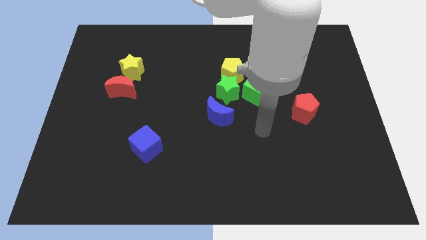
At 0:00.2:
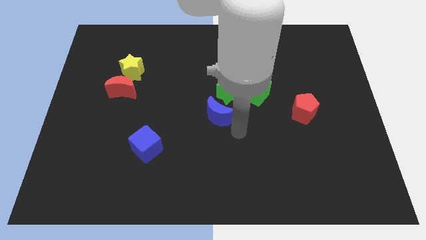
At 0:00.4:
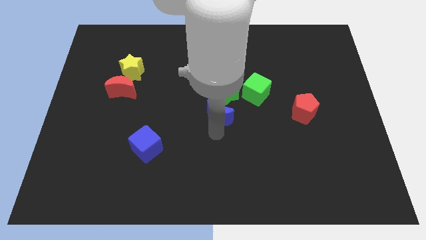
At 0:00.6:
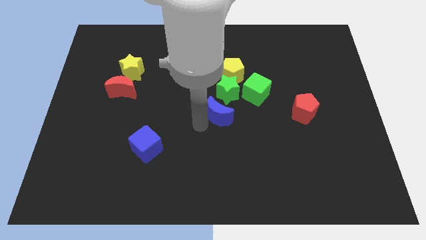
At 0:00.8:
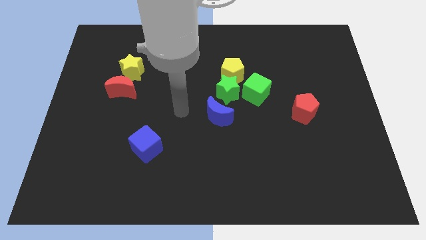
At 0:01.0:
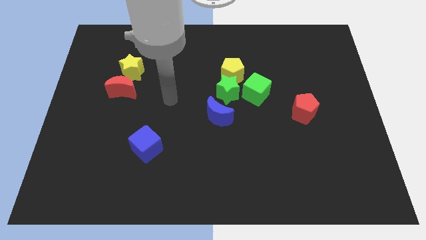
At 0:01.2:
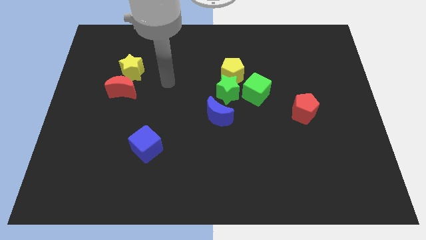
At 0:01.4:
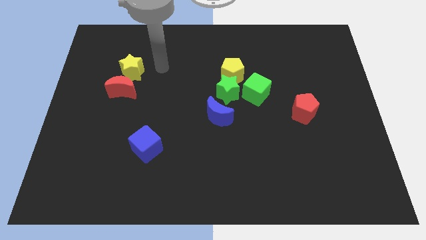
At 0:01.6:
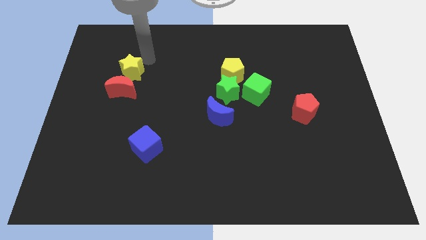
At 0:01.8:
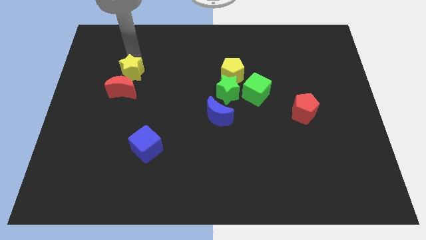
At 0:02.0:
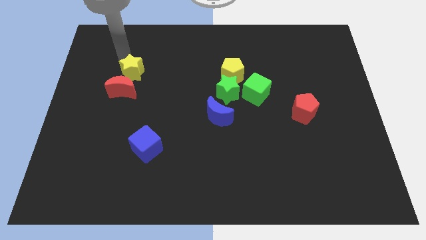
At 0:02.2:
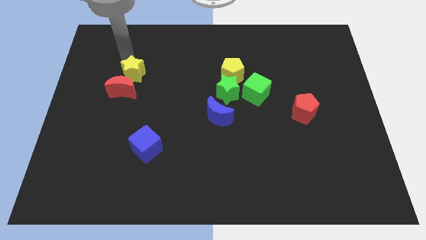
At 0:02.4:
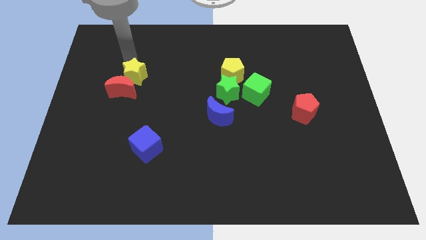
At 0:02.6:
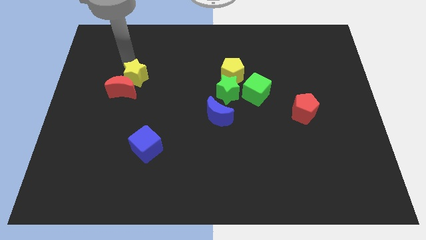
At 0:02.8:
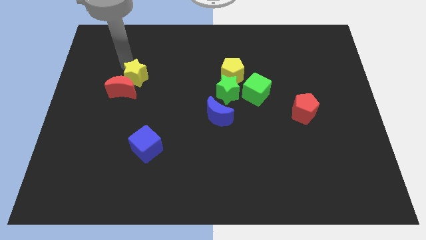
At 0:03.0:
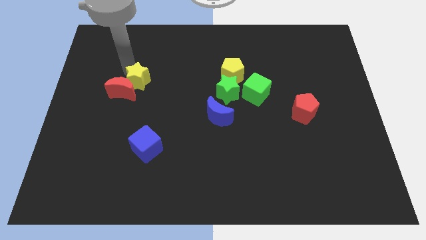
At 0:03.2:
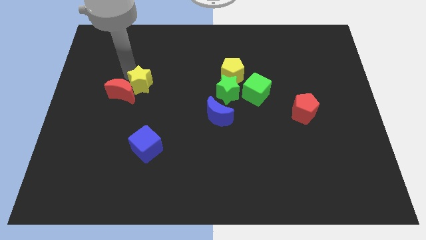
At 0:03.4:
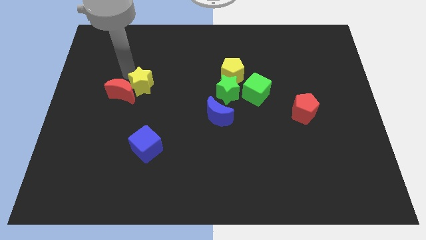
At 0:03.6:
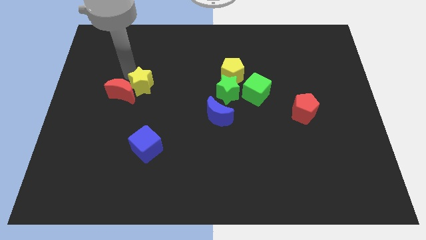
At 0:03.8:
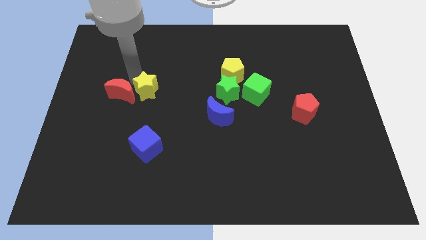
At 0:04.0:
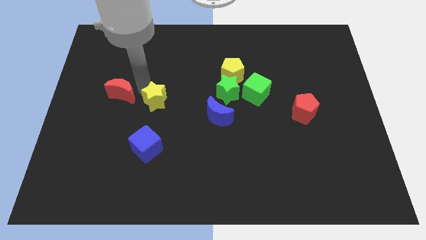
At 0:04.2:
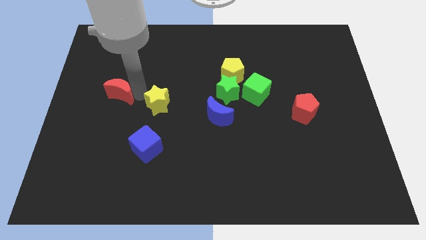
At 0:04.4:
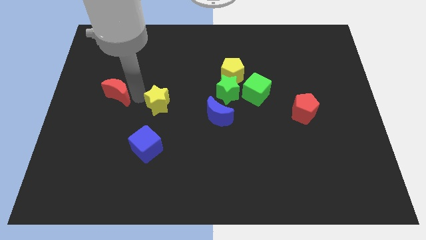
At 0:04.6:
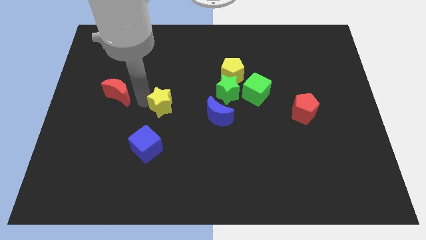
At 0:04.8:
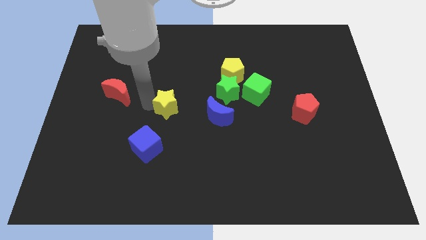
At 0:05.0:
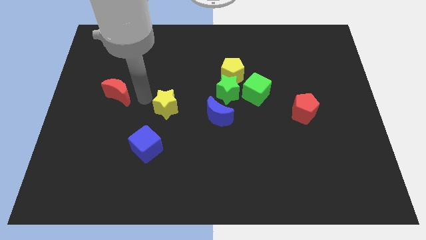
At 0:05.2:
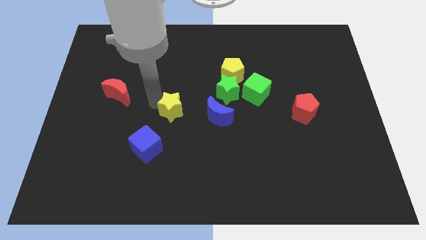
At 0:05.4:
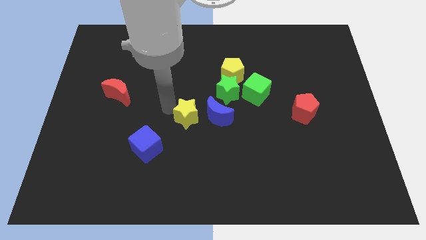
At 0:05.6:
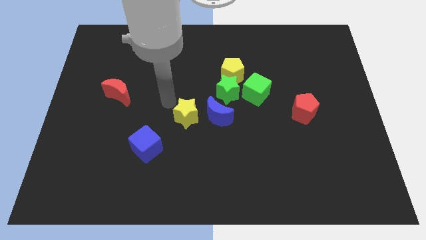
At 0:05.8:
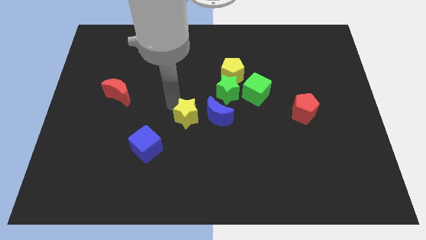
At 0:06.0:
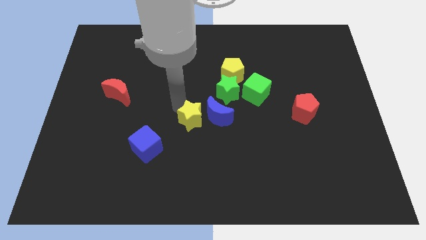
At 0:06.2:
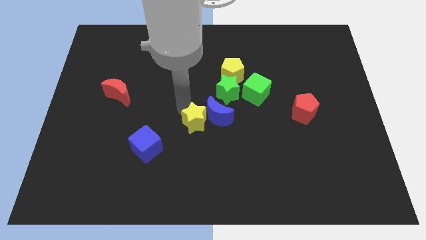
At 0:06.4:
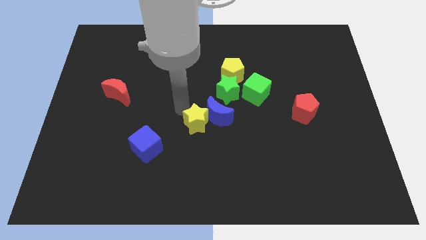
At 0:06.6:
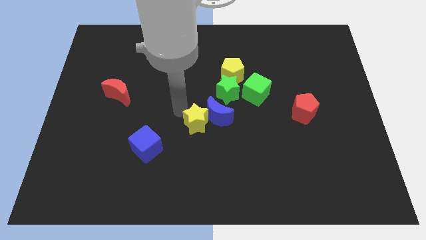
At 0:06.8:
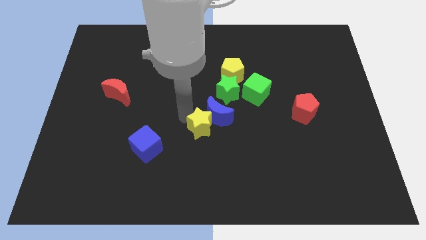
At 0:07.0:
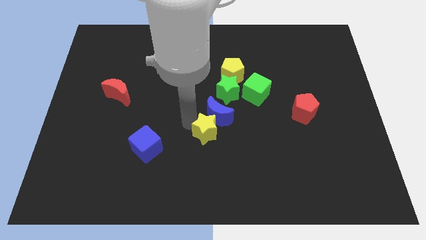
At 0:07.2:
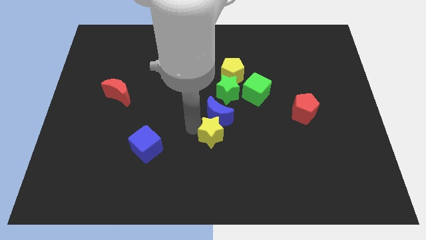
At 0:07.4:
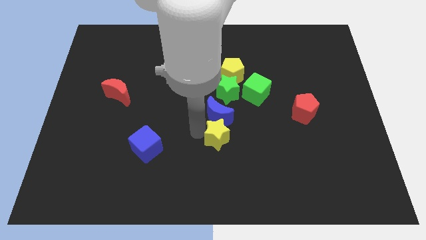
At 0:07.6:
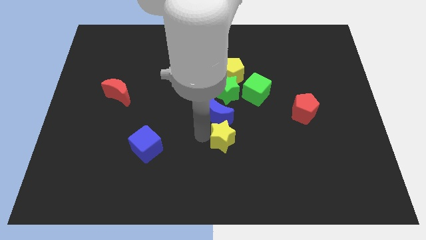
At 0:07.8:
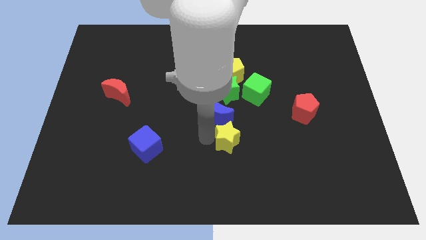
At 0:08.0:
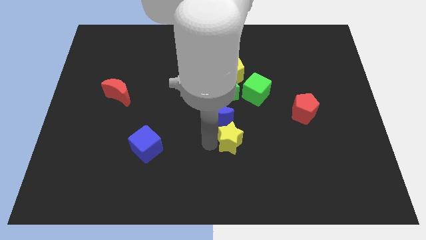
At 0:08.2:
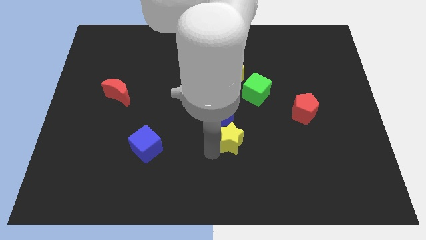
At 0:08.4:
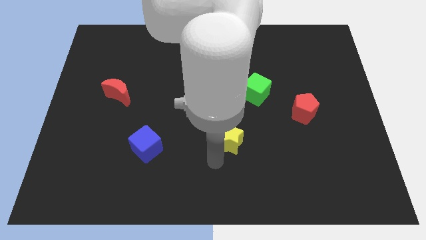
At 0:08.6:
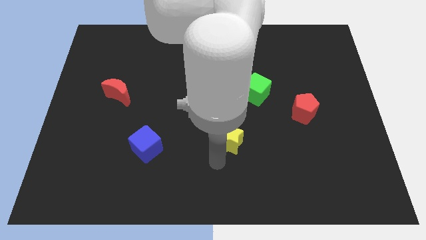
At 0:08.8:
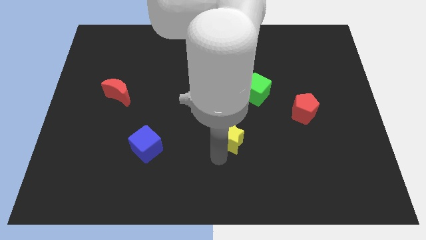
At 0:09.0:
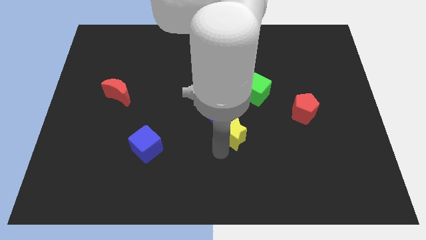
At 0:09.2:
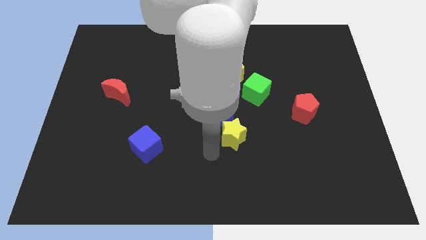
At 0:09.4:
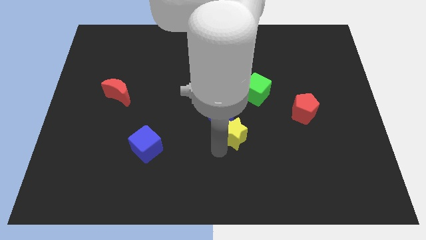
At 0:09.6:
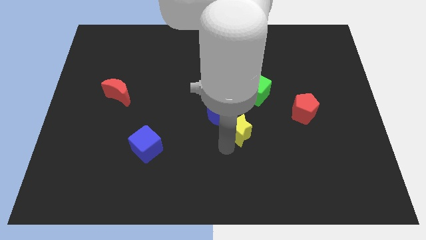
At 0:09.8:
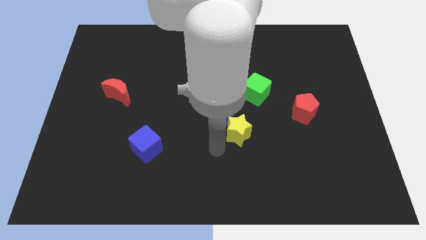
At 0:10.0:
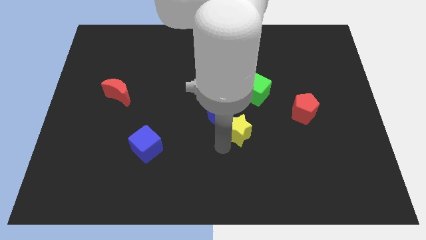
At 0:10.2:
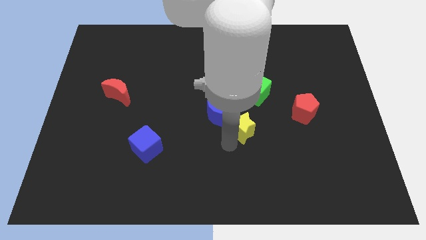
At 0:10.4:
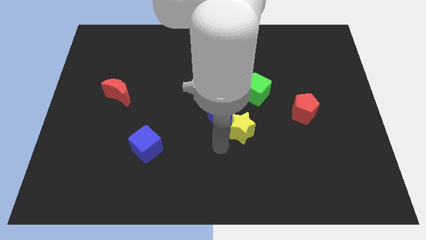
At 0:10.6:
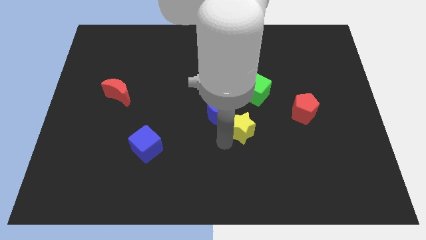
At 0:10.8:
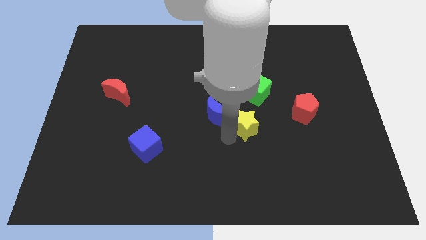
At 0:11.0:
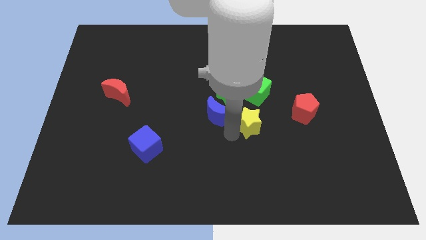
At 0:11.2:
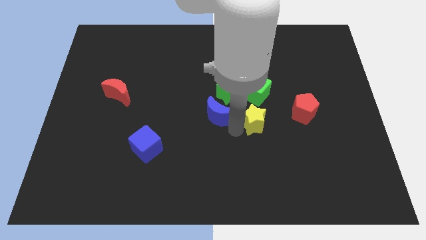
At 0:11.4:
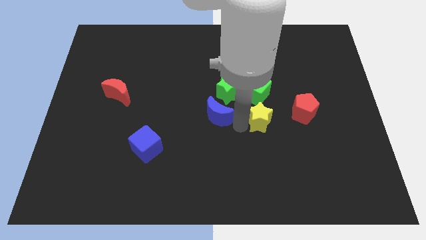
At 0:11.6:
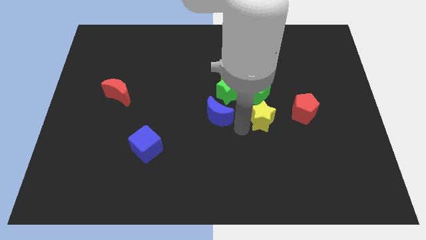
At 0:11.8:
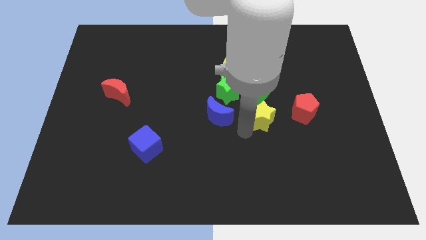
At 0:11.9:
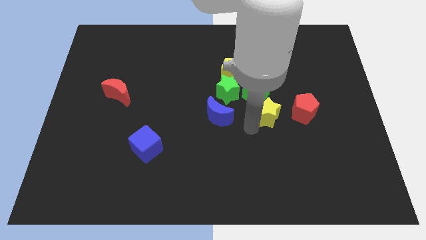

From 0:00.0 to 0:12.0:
move the yellow star to the bottom right of the green cube
